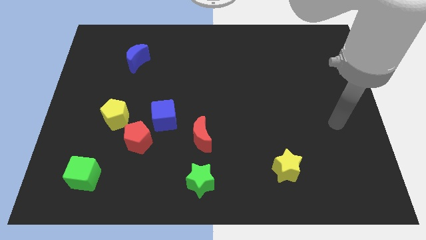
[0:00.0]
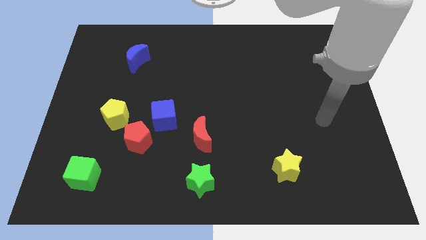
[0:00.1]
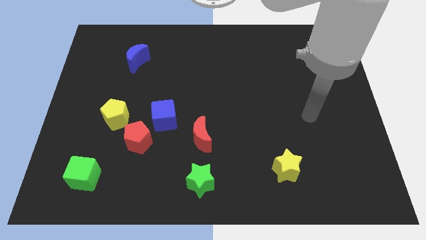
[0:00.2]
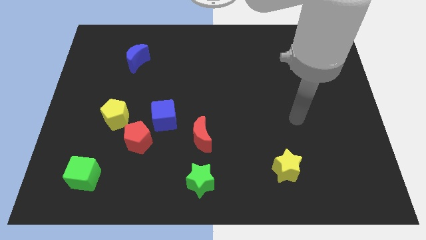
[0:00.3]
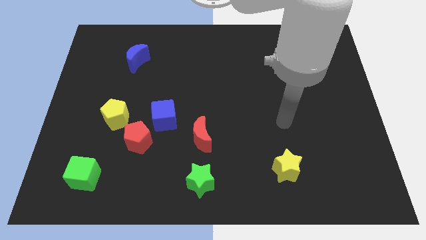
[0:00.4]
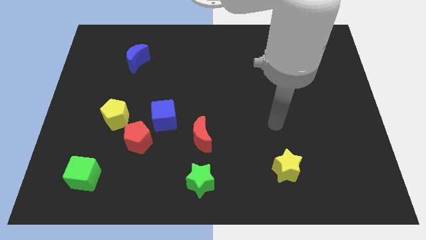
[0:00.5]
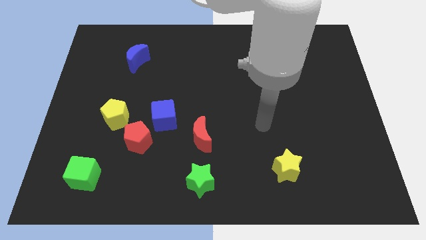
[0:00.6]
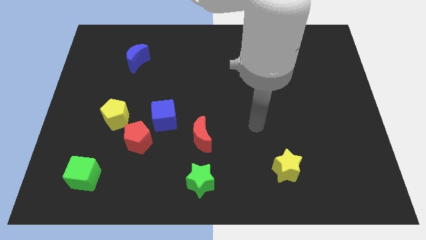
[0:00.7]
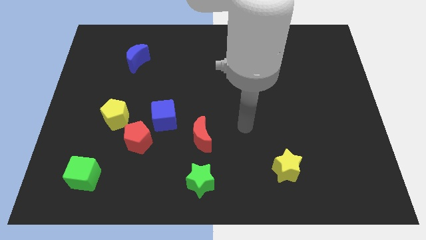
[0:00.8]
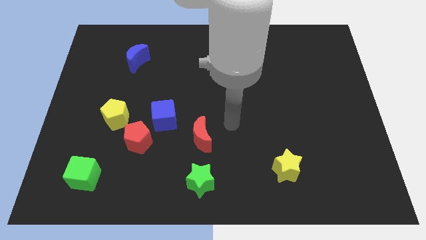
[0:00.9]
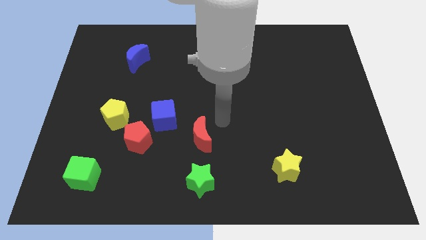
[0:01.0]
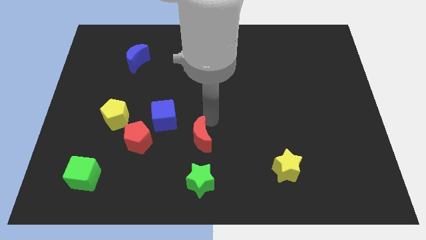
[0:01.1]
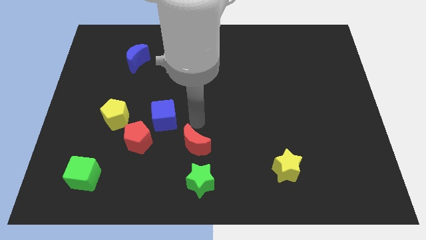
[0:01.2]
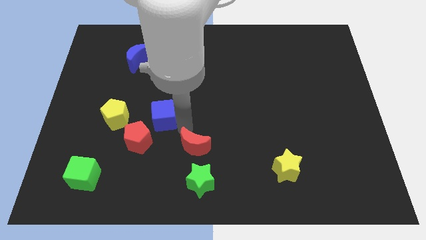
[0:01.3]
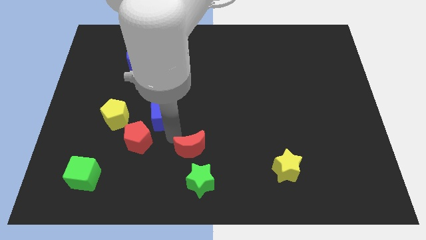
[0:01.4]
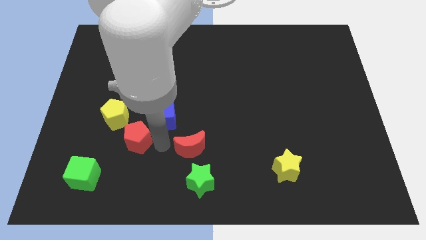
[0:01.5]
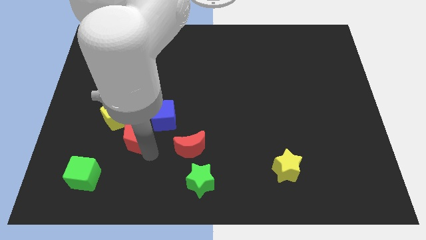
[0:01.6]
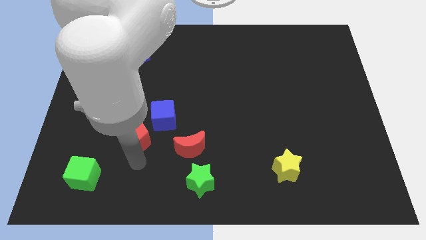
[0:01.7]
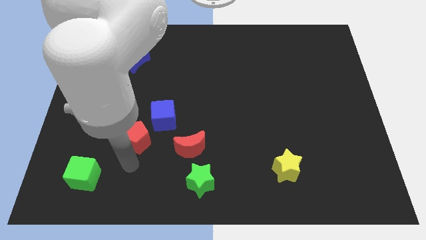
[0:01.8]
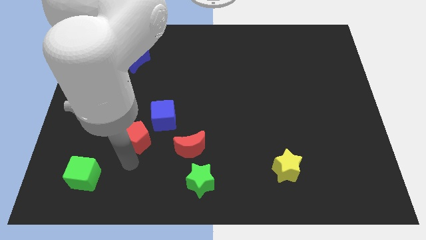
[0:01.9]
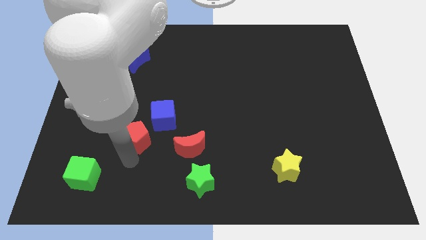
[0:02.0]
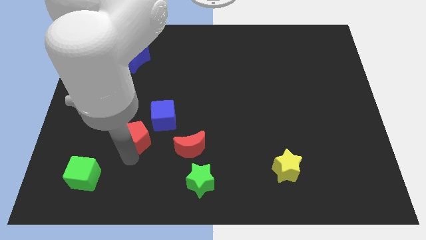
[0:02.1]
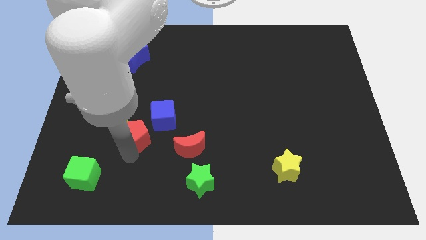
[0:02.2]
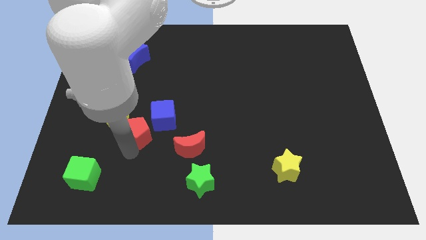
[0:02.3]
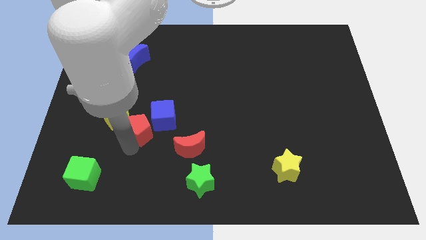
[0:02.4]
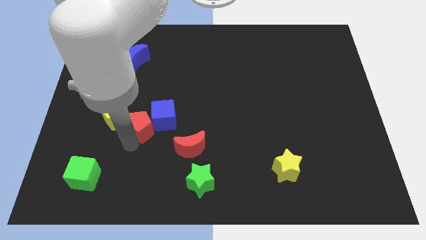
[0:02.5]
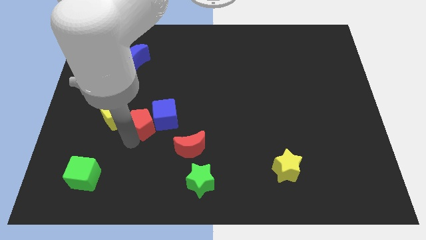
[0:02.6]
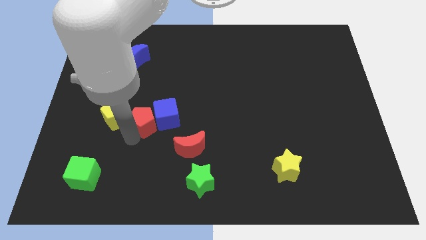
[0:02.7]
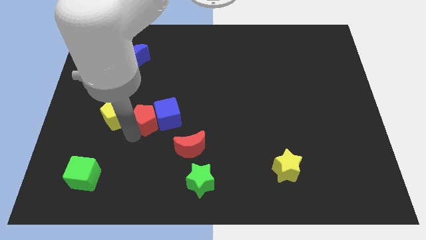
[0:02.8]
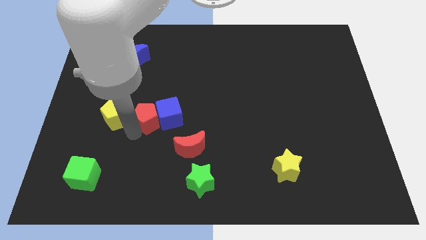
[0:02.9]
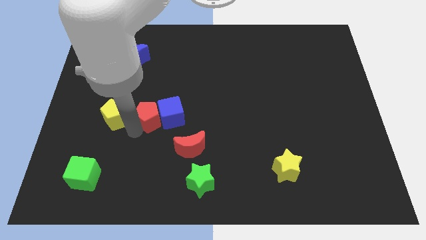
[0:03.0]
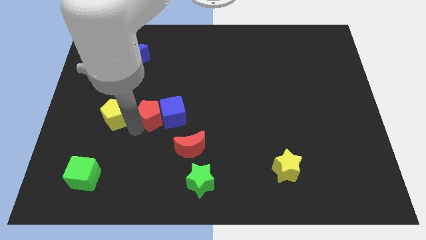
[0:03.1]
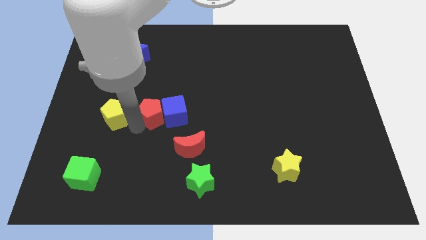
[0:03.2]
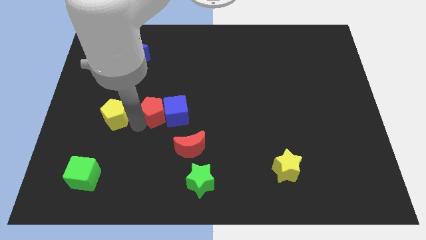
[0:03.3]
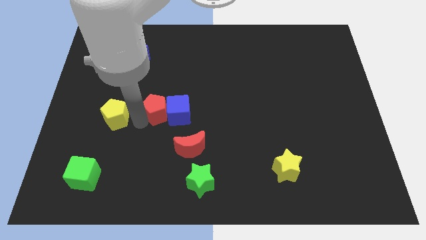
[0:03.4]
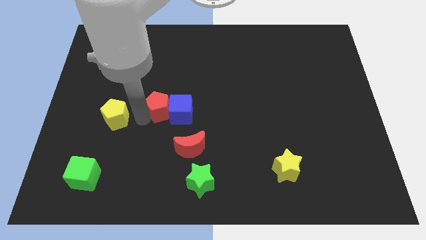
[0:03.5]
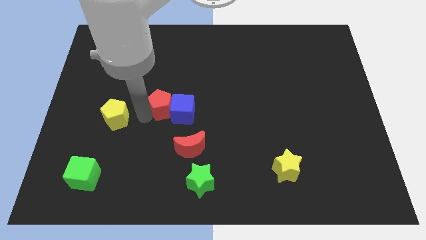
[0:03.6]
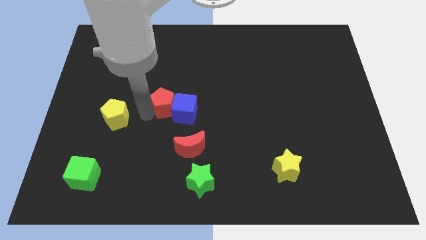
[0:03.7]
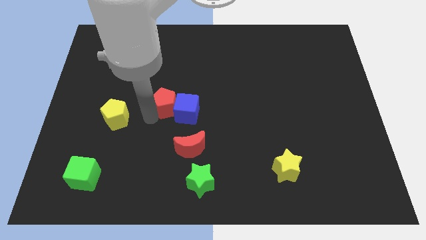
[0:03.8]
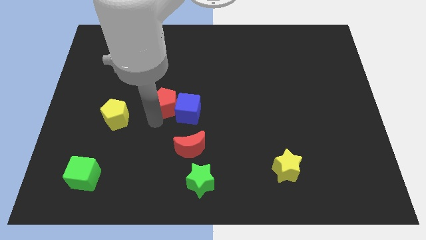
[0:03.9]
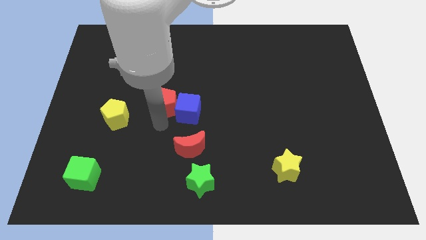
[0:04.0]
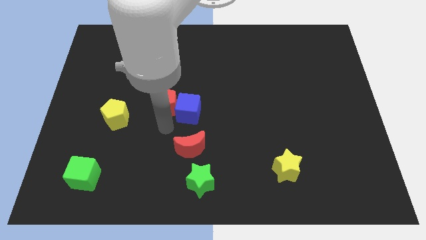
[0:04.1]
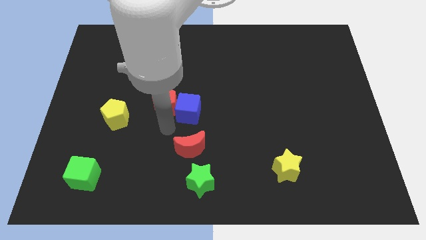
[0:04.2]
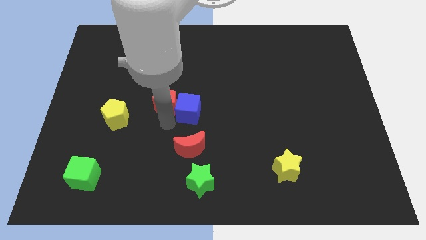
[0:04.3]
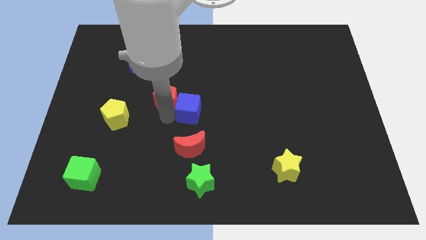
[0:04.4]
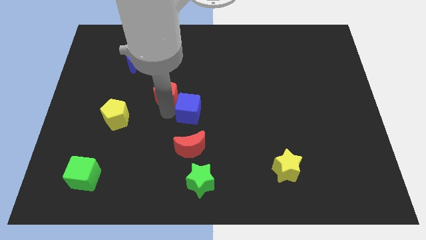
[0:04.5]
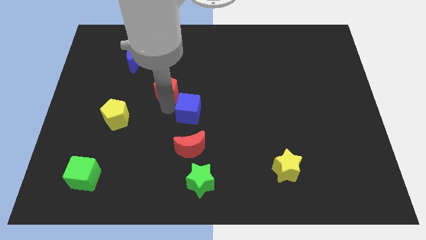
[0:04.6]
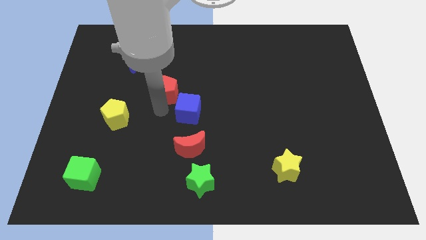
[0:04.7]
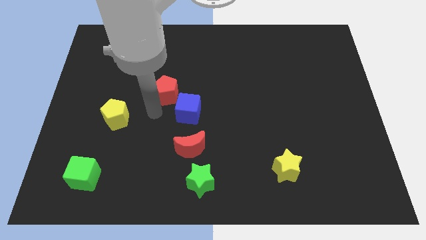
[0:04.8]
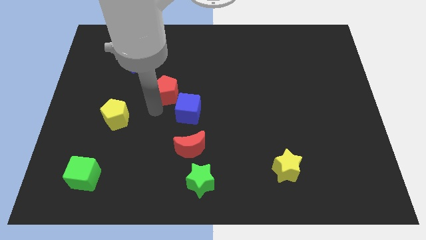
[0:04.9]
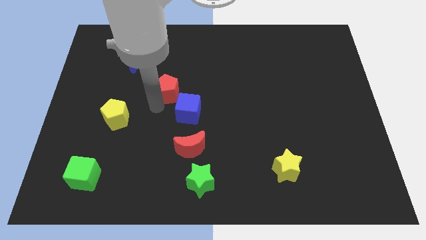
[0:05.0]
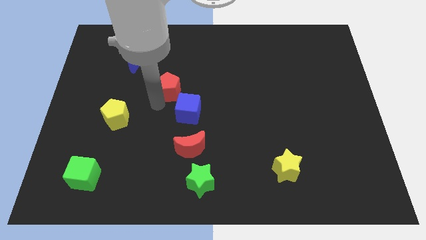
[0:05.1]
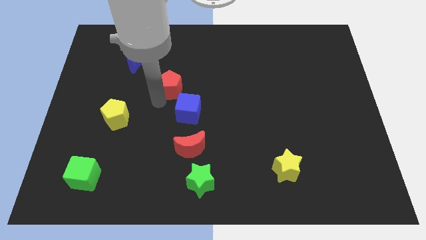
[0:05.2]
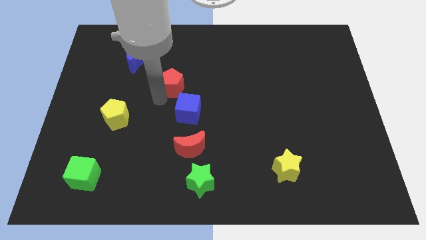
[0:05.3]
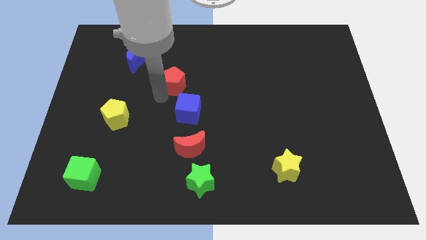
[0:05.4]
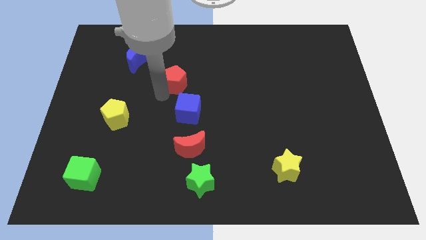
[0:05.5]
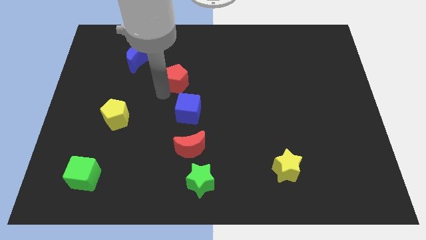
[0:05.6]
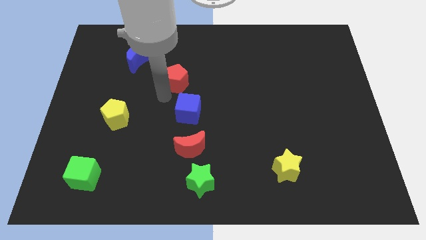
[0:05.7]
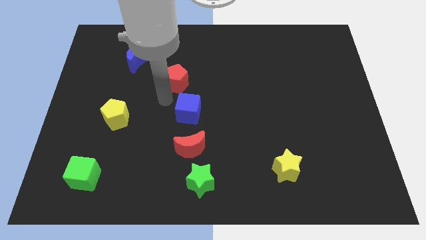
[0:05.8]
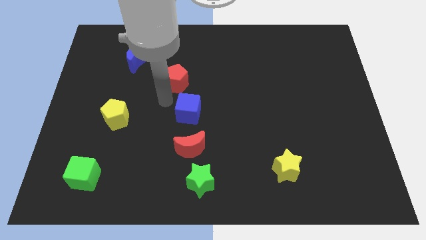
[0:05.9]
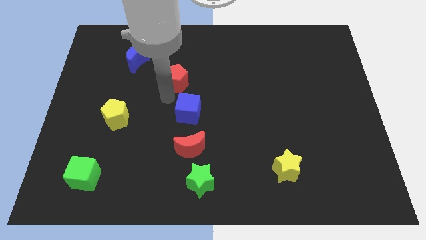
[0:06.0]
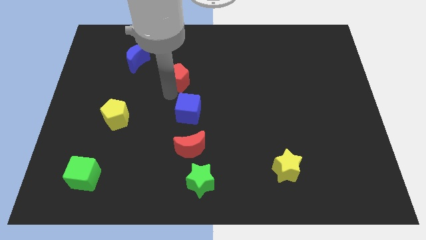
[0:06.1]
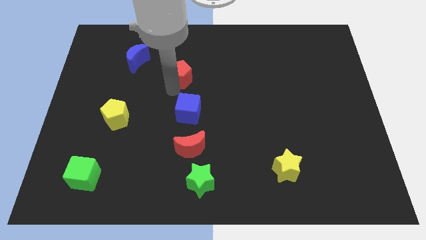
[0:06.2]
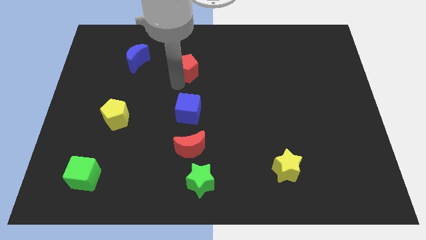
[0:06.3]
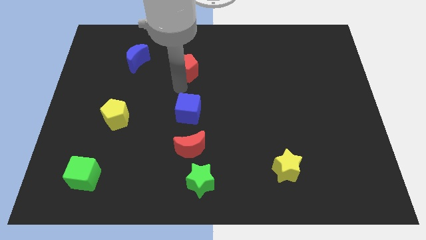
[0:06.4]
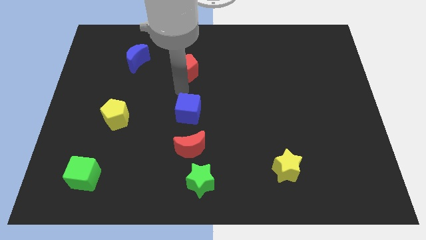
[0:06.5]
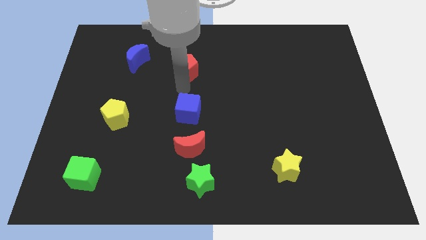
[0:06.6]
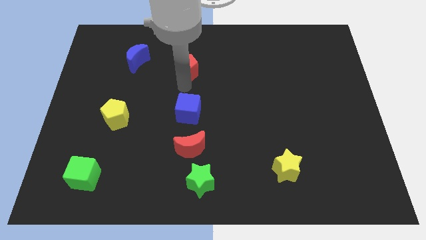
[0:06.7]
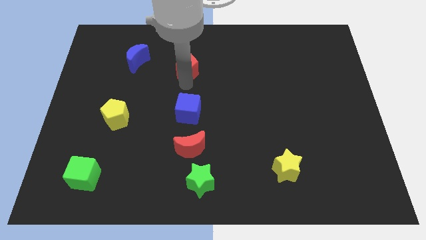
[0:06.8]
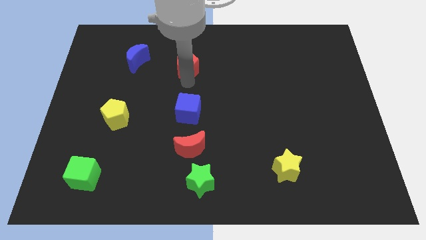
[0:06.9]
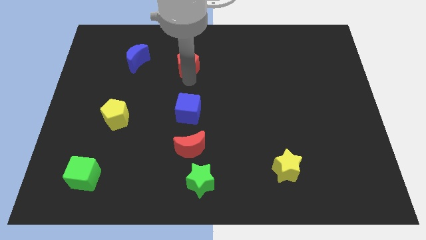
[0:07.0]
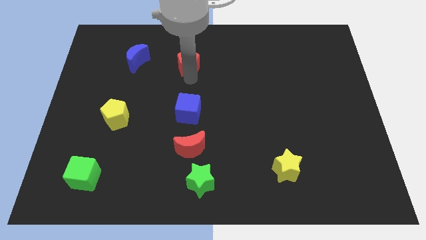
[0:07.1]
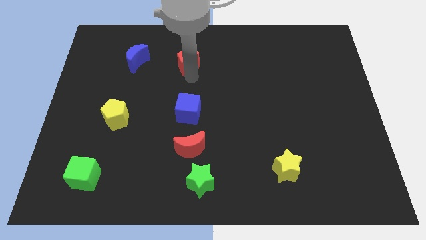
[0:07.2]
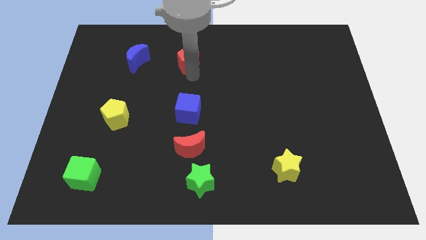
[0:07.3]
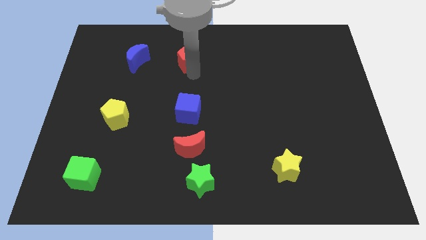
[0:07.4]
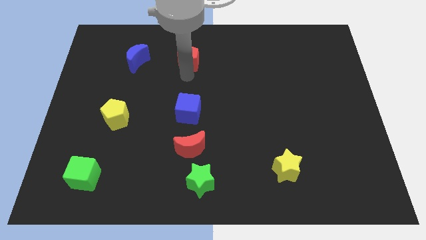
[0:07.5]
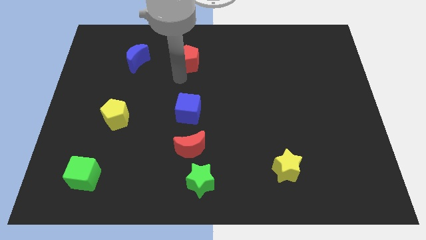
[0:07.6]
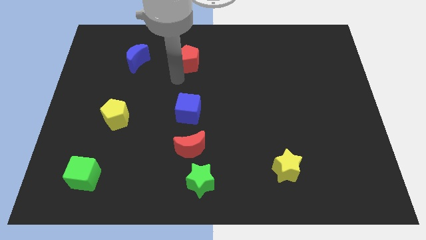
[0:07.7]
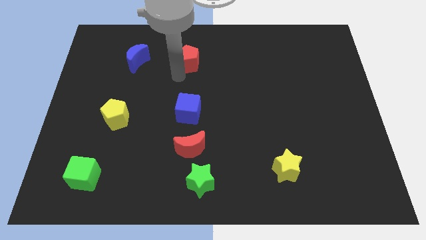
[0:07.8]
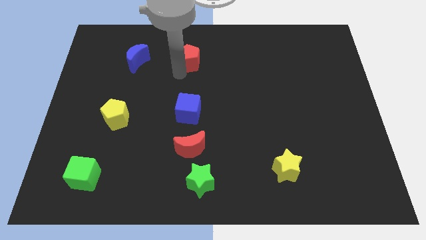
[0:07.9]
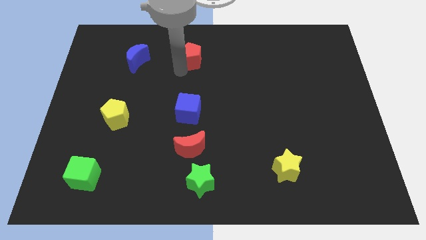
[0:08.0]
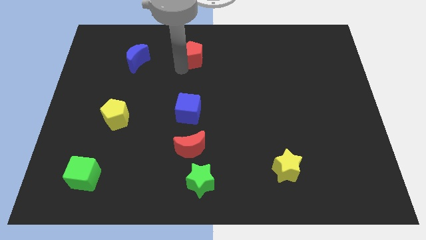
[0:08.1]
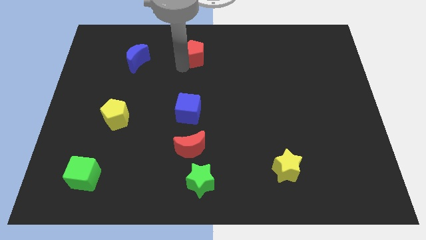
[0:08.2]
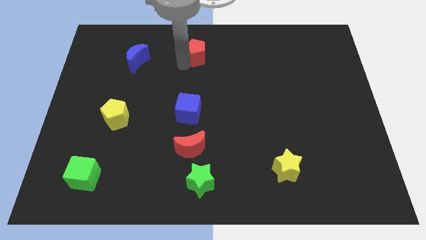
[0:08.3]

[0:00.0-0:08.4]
move the red pentagon to the top side
